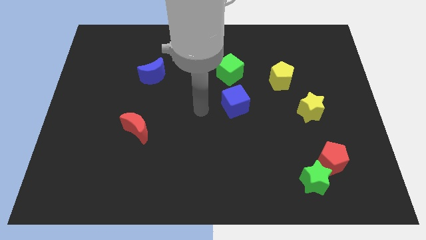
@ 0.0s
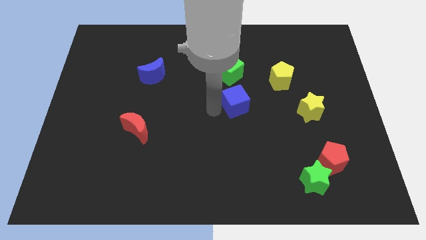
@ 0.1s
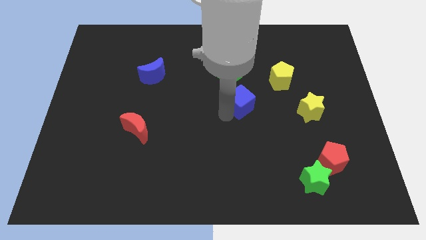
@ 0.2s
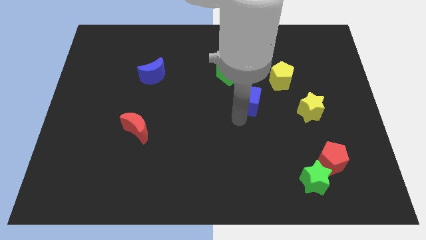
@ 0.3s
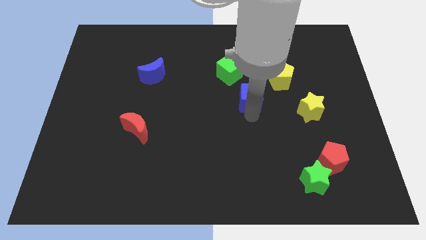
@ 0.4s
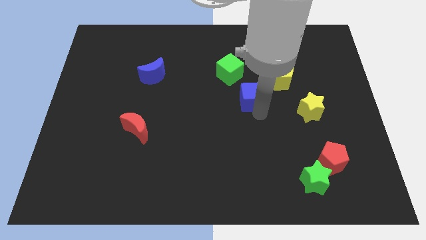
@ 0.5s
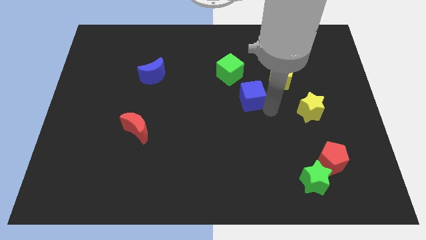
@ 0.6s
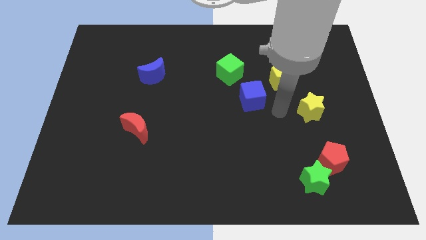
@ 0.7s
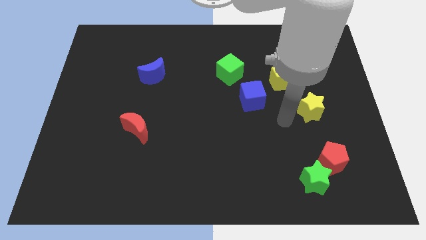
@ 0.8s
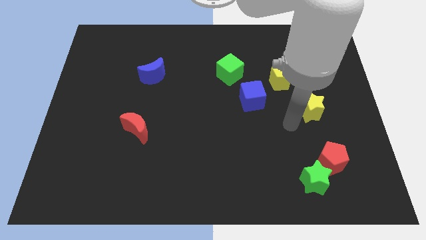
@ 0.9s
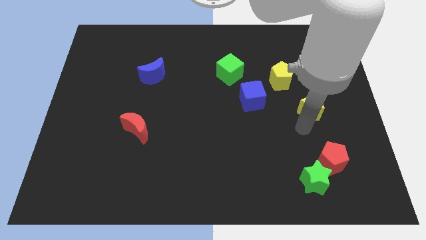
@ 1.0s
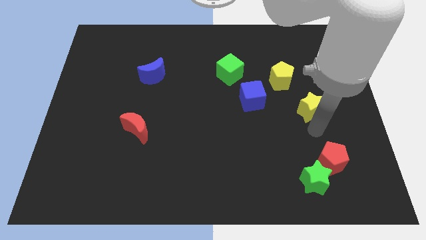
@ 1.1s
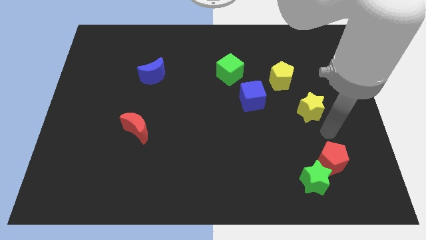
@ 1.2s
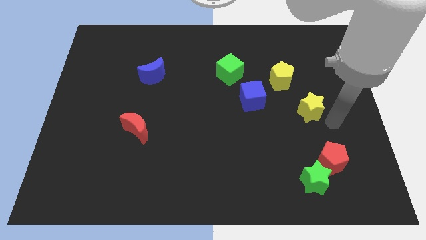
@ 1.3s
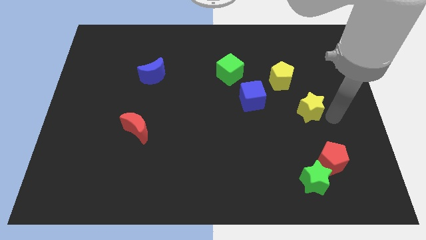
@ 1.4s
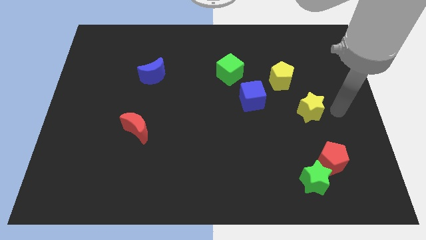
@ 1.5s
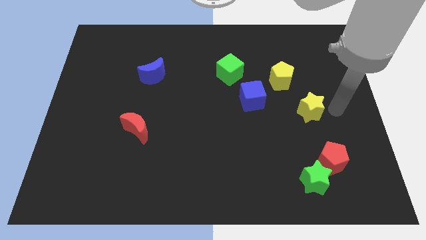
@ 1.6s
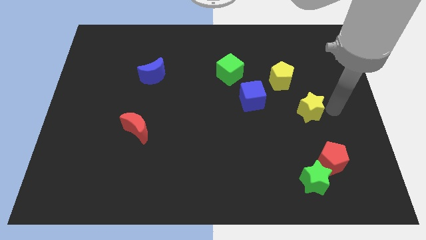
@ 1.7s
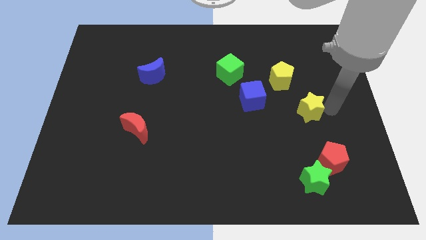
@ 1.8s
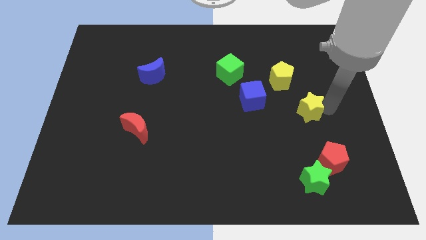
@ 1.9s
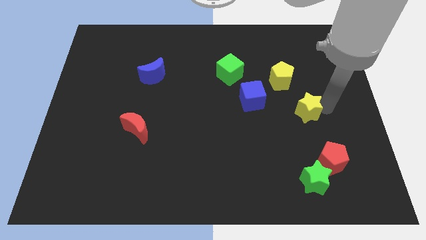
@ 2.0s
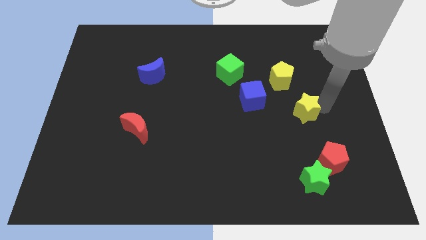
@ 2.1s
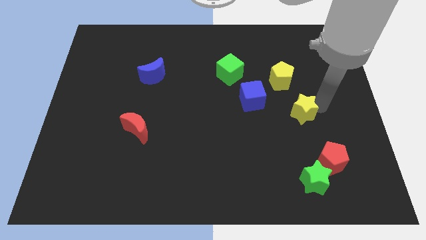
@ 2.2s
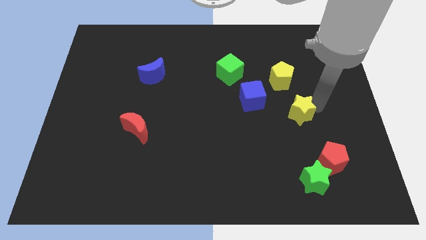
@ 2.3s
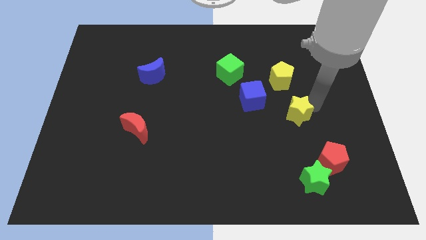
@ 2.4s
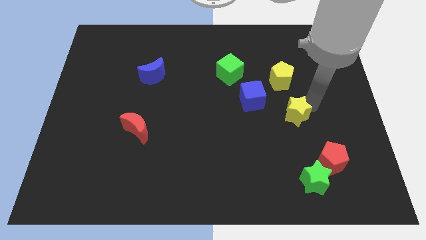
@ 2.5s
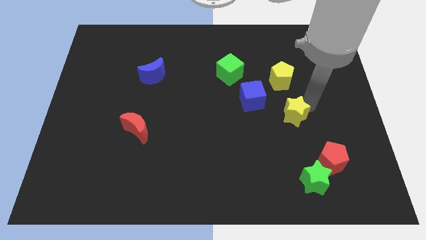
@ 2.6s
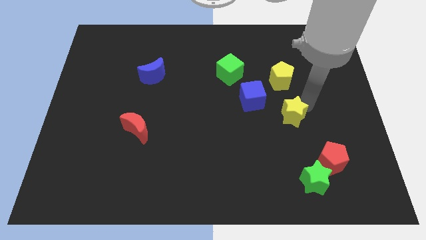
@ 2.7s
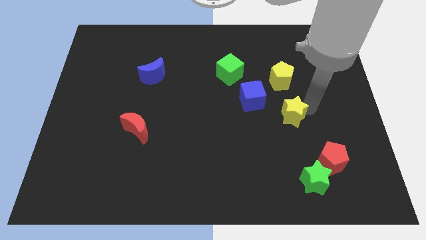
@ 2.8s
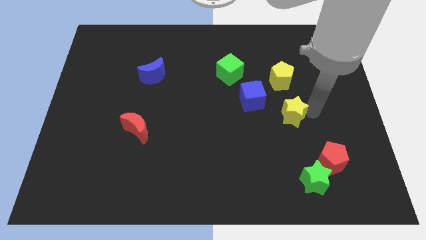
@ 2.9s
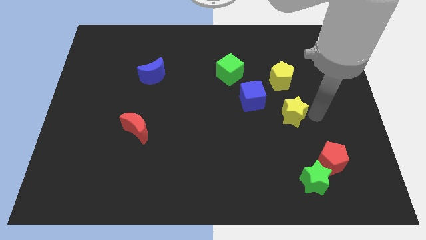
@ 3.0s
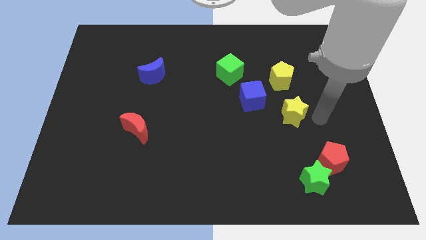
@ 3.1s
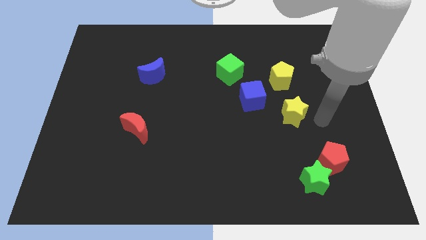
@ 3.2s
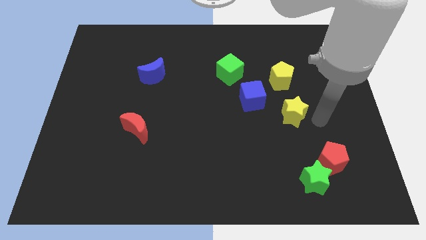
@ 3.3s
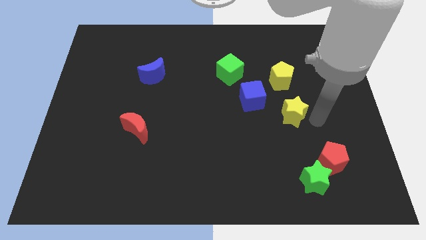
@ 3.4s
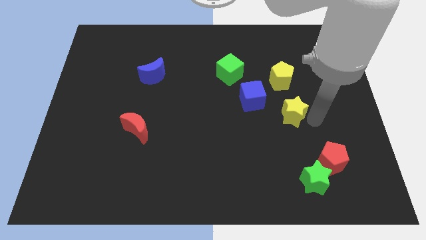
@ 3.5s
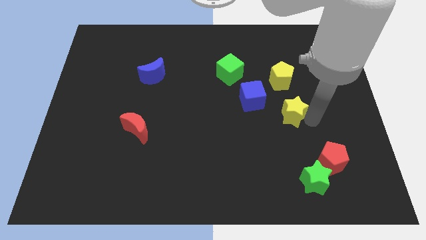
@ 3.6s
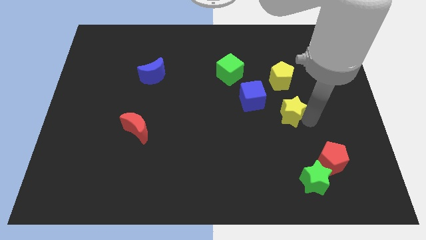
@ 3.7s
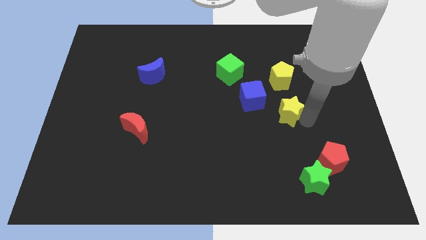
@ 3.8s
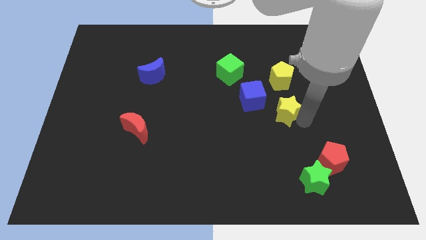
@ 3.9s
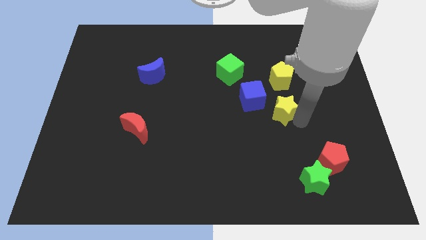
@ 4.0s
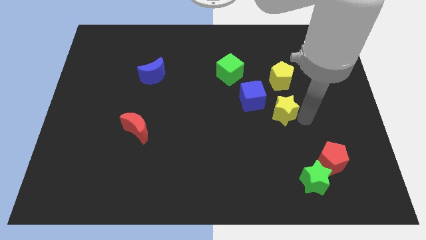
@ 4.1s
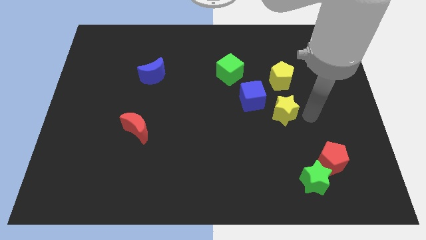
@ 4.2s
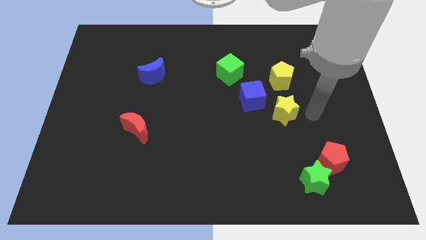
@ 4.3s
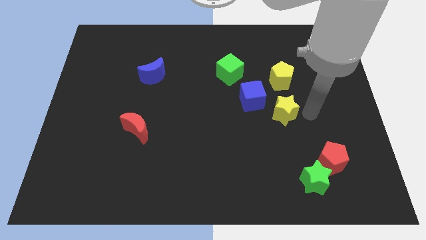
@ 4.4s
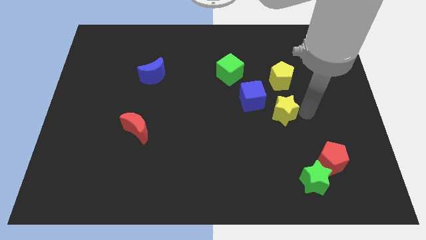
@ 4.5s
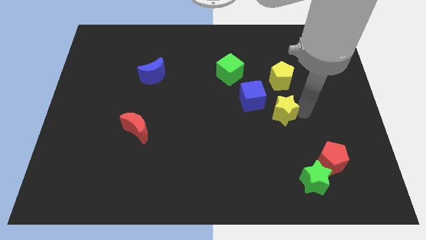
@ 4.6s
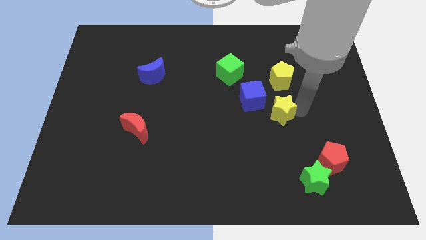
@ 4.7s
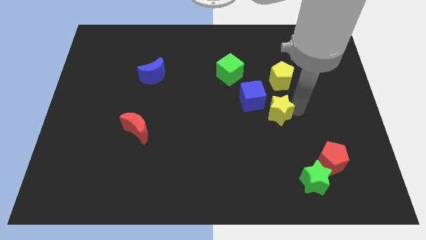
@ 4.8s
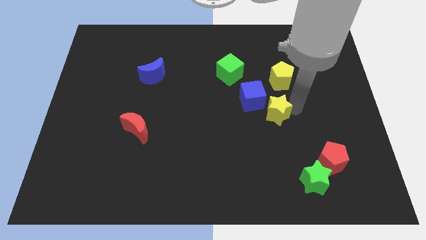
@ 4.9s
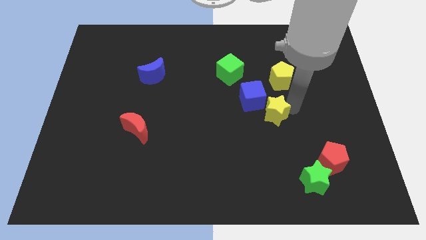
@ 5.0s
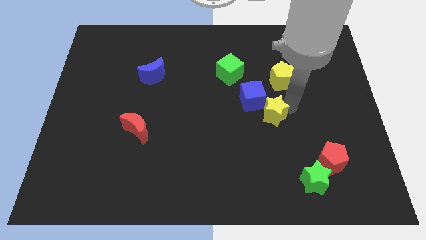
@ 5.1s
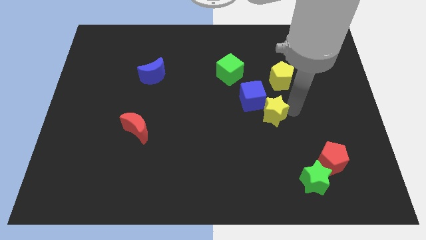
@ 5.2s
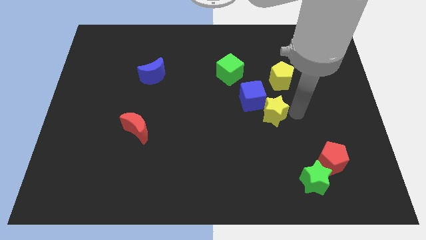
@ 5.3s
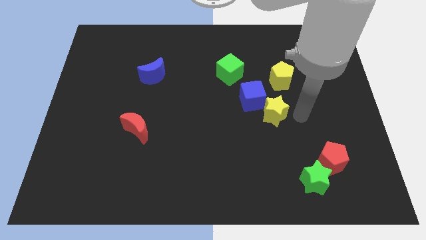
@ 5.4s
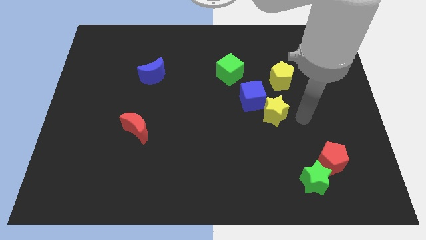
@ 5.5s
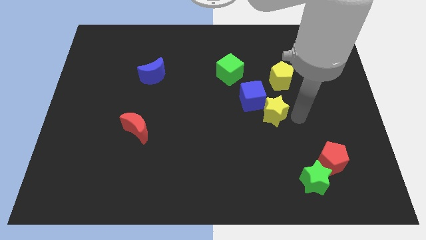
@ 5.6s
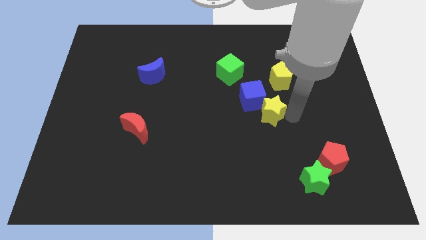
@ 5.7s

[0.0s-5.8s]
put the yellow star to the blue cube

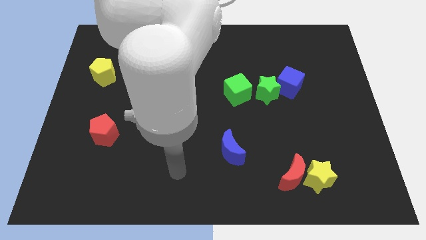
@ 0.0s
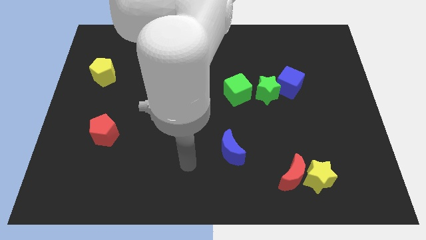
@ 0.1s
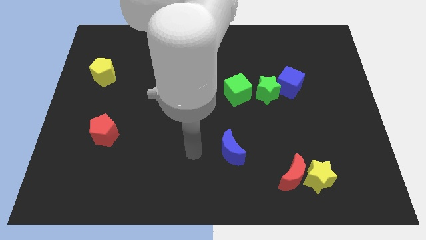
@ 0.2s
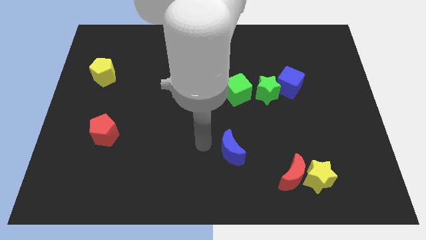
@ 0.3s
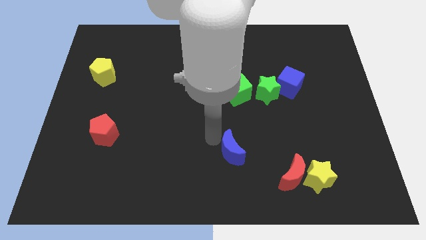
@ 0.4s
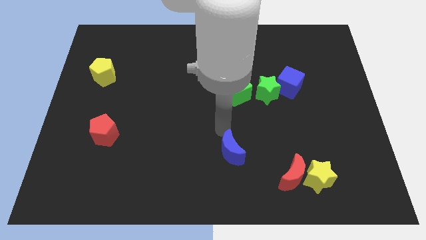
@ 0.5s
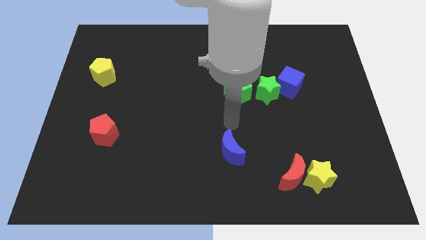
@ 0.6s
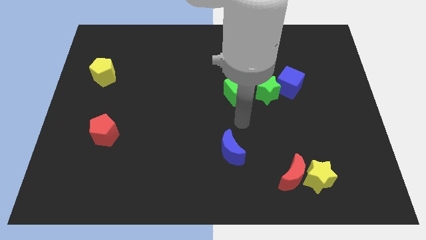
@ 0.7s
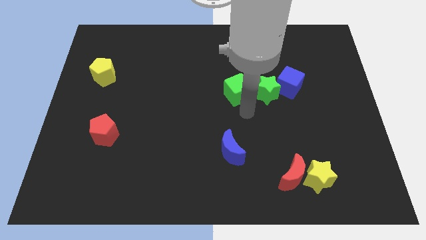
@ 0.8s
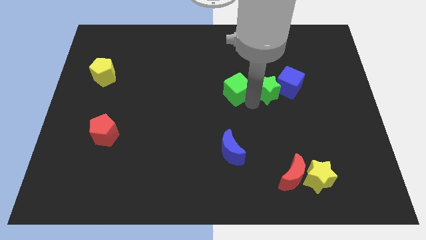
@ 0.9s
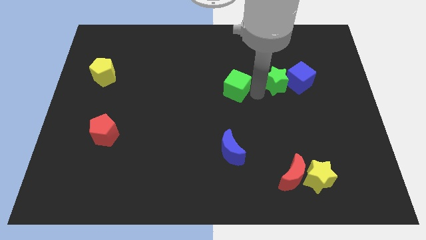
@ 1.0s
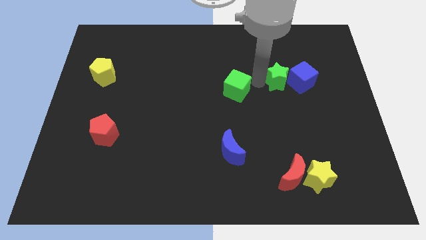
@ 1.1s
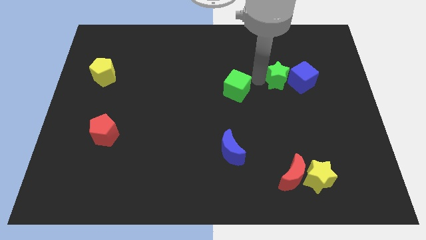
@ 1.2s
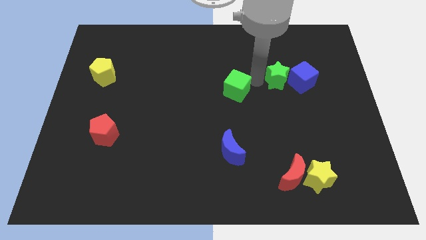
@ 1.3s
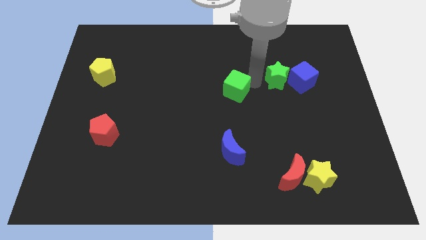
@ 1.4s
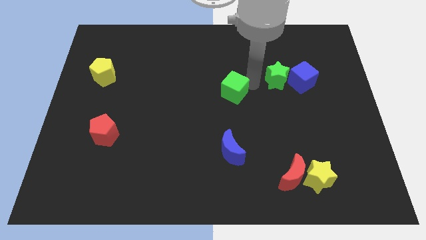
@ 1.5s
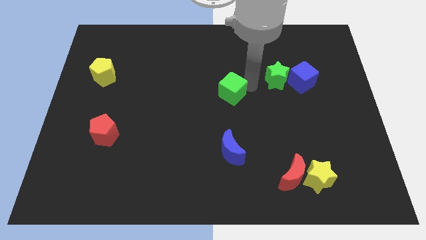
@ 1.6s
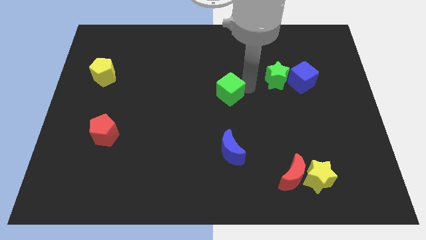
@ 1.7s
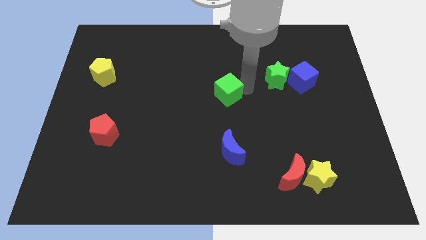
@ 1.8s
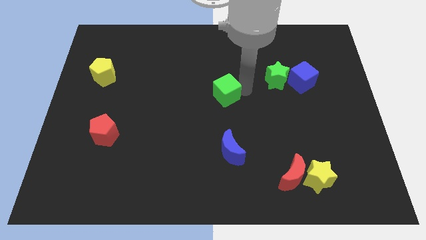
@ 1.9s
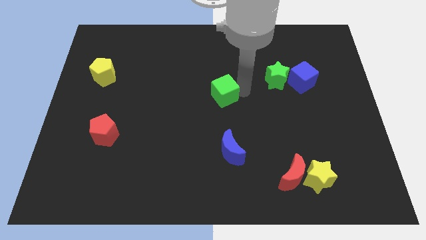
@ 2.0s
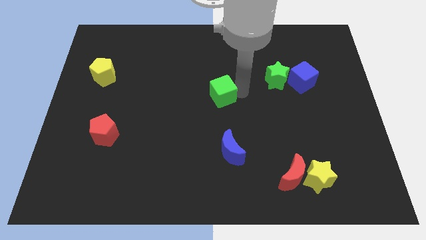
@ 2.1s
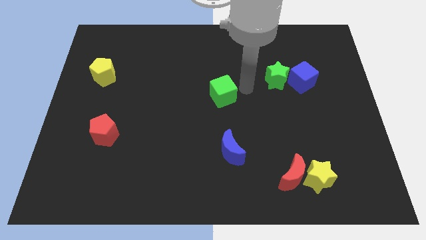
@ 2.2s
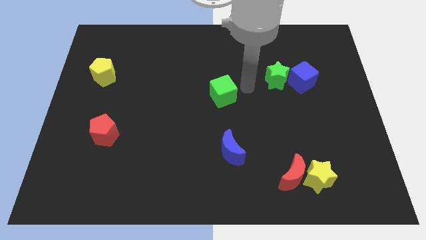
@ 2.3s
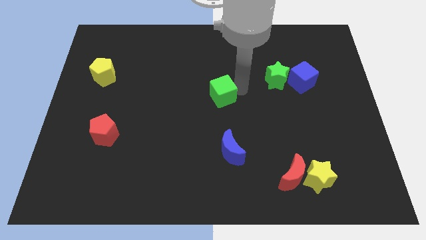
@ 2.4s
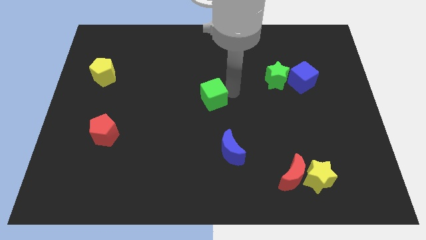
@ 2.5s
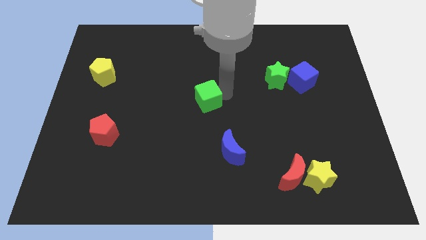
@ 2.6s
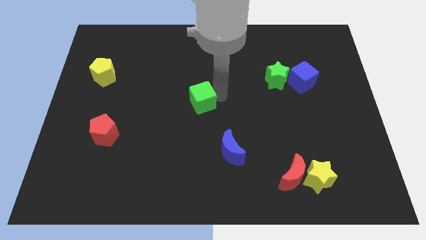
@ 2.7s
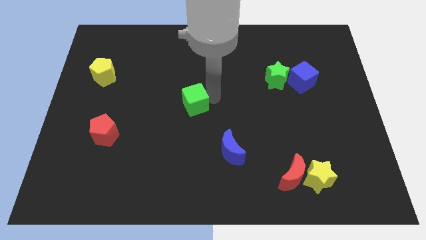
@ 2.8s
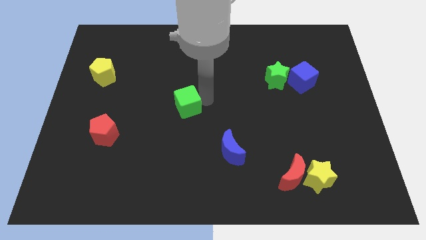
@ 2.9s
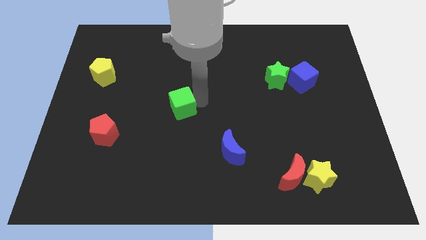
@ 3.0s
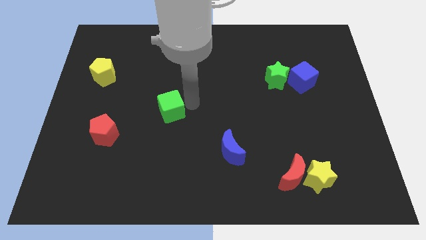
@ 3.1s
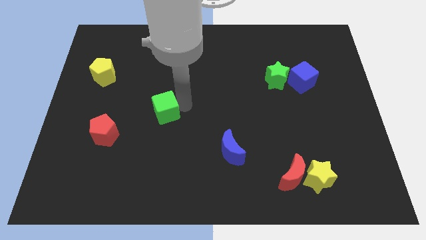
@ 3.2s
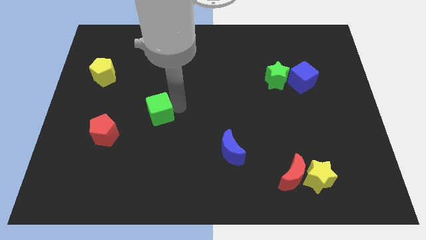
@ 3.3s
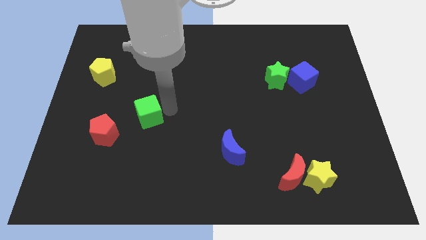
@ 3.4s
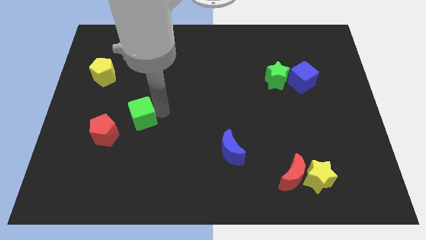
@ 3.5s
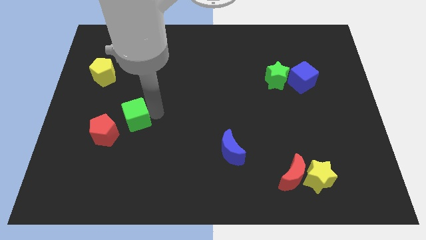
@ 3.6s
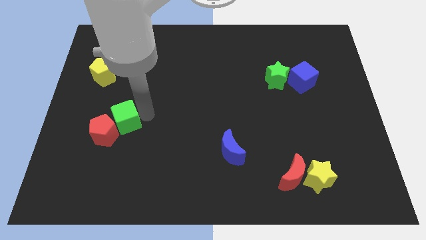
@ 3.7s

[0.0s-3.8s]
move the green cube next to the red pentagon
